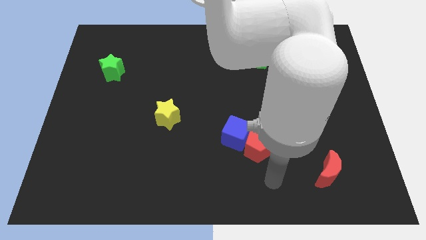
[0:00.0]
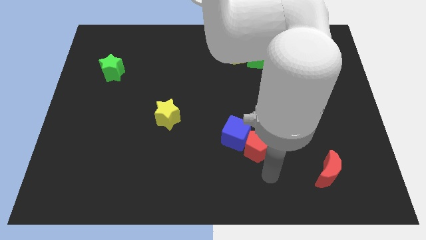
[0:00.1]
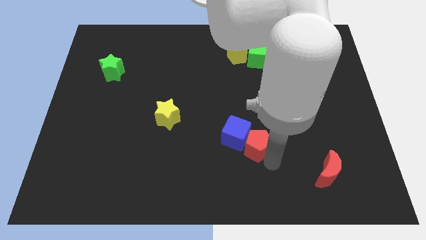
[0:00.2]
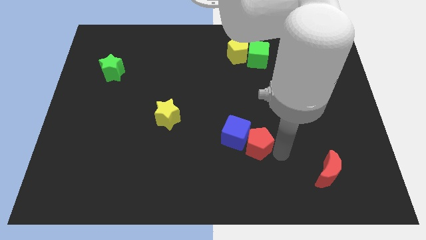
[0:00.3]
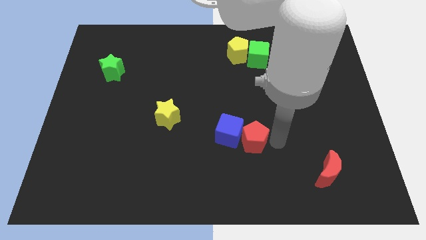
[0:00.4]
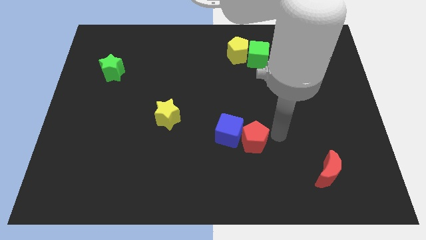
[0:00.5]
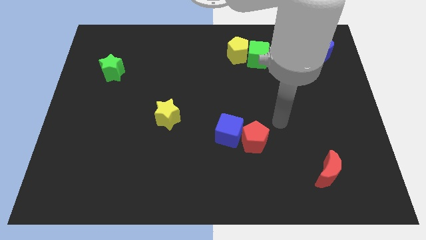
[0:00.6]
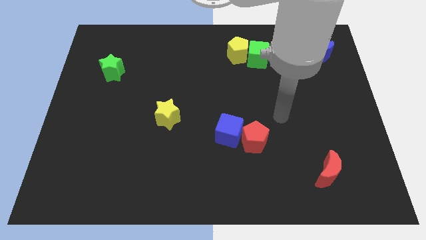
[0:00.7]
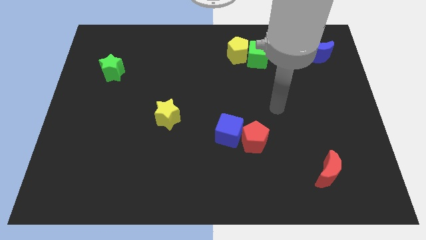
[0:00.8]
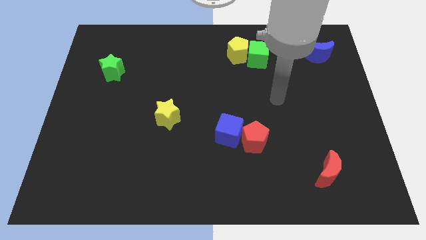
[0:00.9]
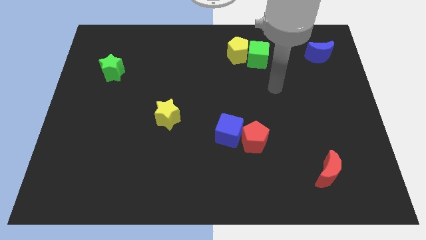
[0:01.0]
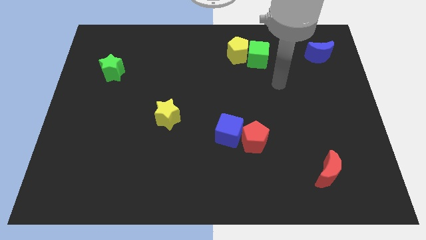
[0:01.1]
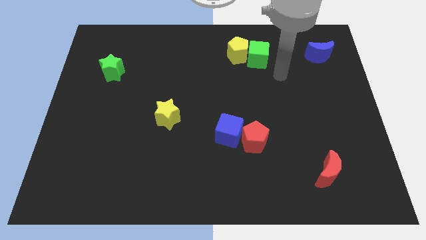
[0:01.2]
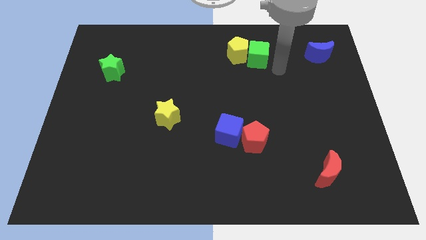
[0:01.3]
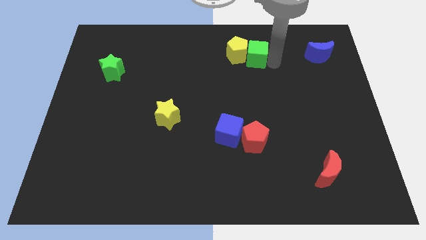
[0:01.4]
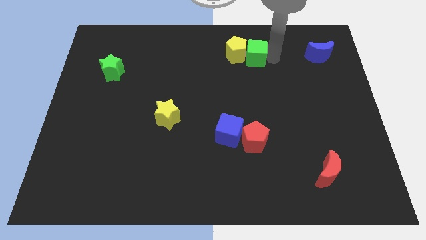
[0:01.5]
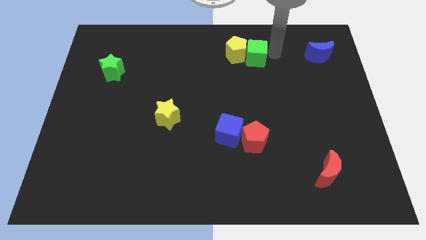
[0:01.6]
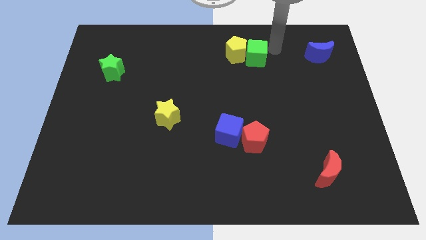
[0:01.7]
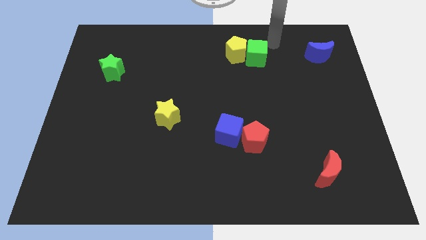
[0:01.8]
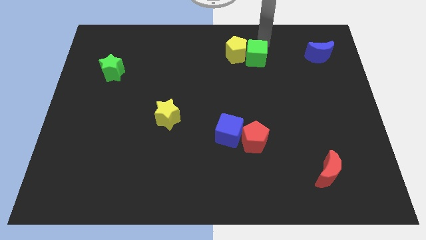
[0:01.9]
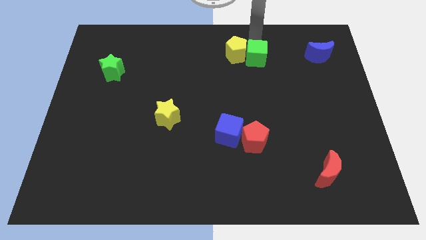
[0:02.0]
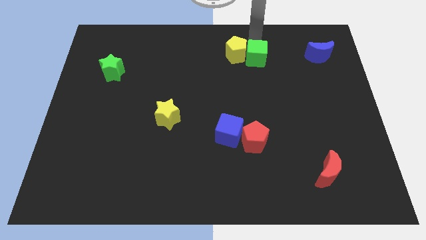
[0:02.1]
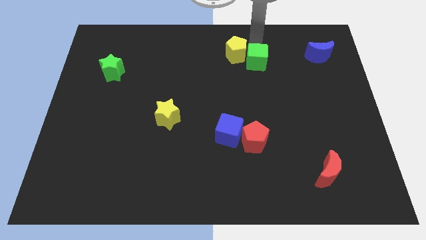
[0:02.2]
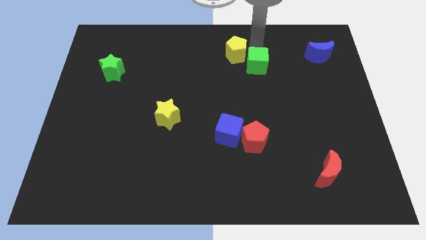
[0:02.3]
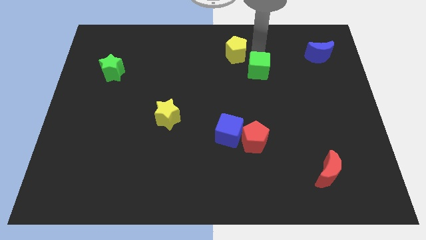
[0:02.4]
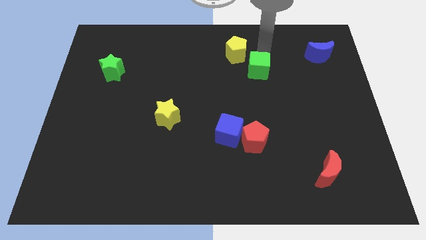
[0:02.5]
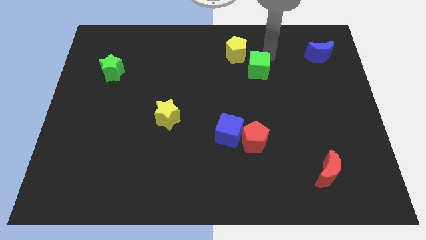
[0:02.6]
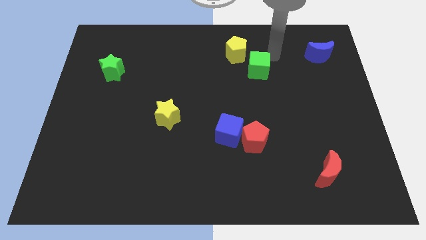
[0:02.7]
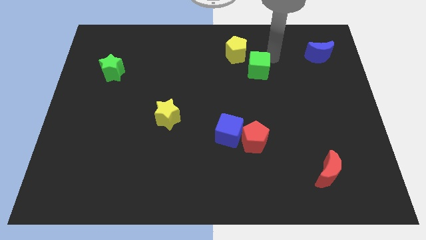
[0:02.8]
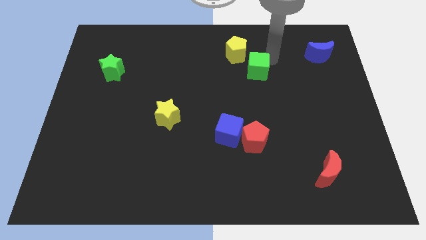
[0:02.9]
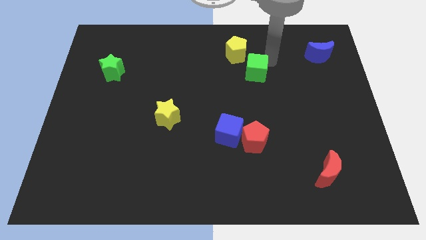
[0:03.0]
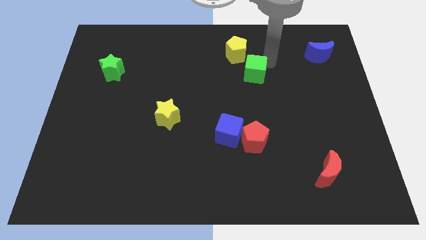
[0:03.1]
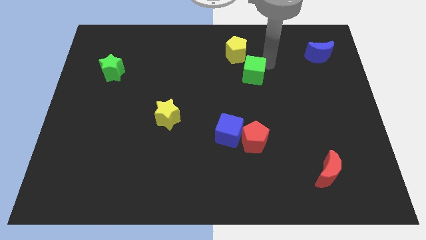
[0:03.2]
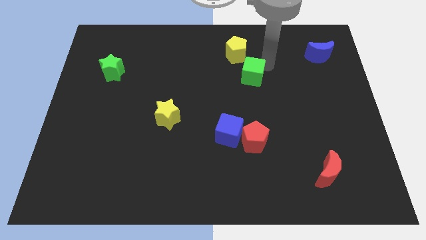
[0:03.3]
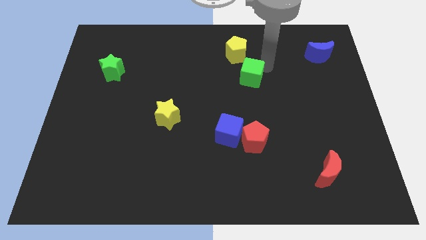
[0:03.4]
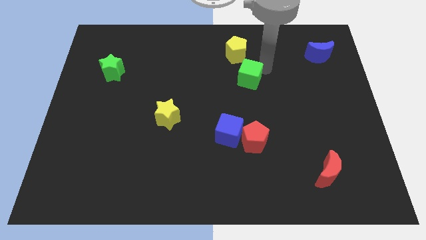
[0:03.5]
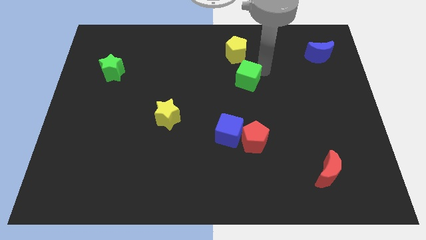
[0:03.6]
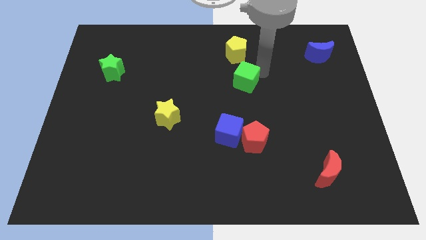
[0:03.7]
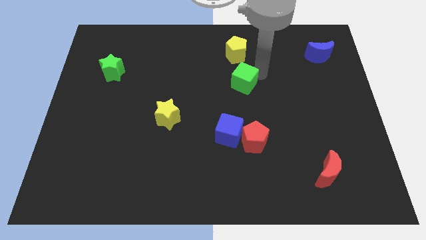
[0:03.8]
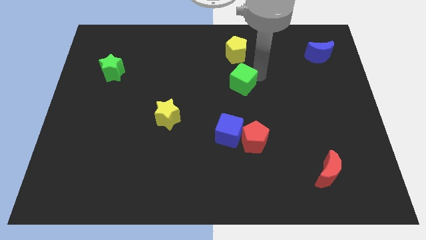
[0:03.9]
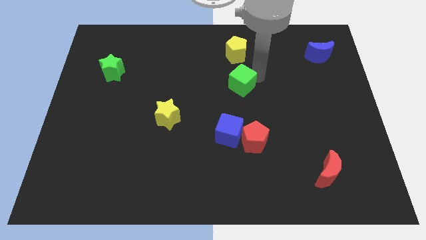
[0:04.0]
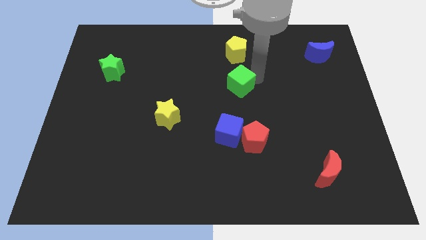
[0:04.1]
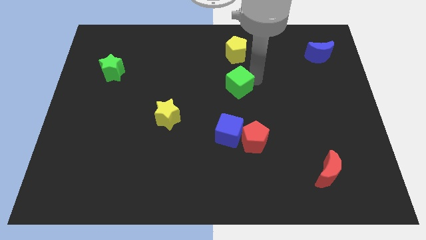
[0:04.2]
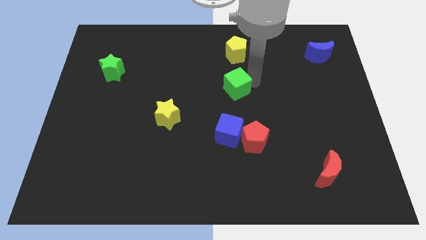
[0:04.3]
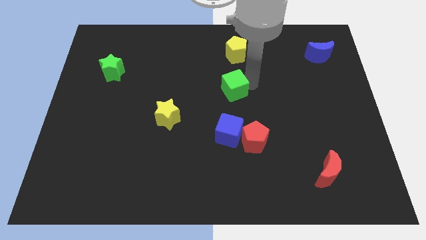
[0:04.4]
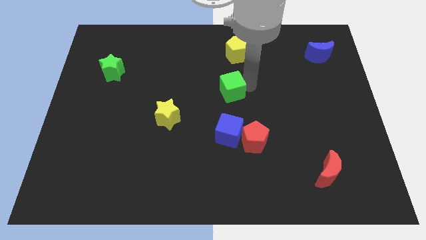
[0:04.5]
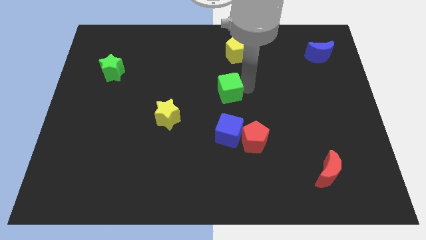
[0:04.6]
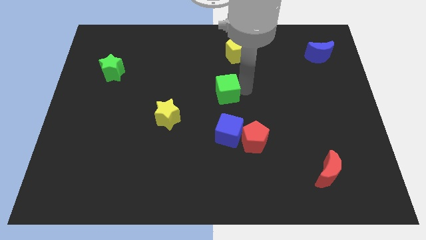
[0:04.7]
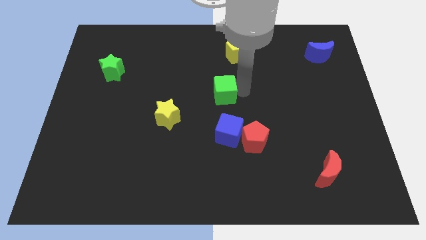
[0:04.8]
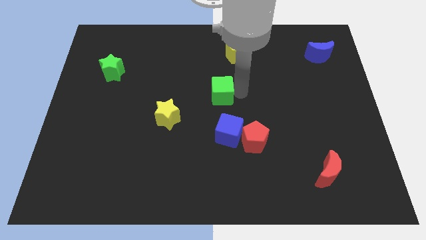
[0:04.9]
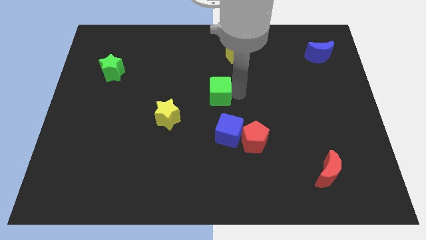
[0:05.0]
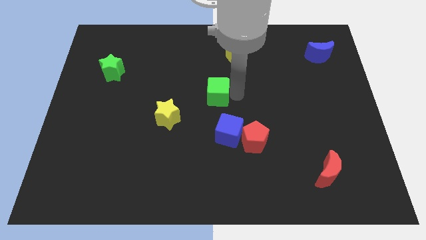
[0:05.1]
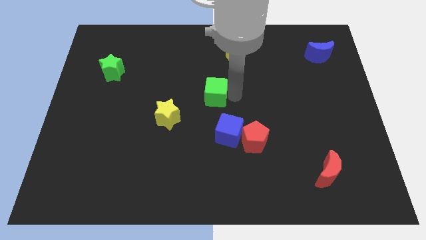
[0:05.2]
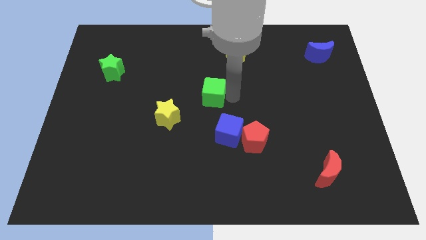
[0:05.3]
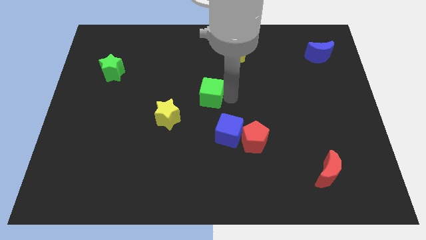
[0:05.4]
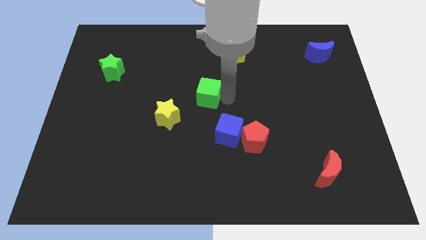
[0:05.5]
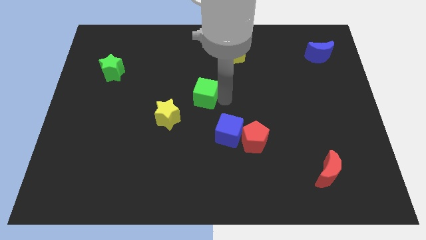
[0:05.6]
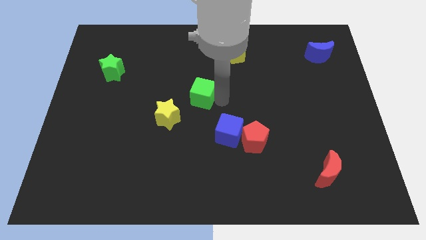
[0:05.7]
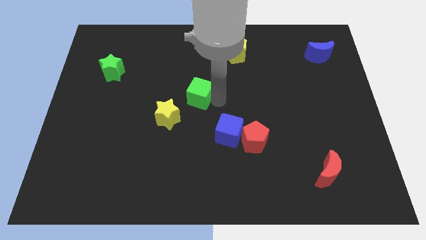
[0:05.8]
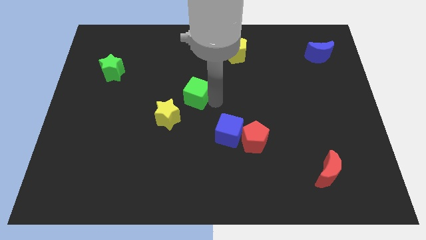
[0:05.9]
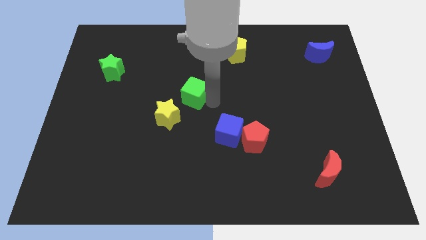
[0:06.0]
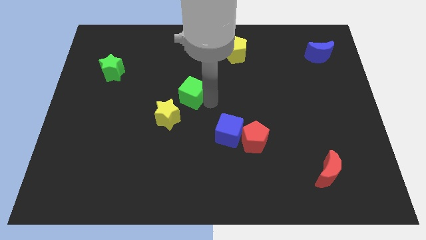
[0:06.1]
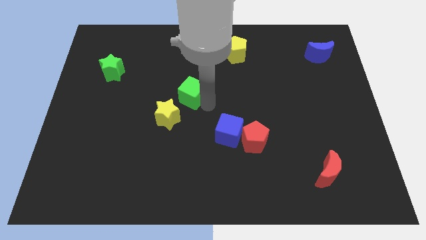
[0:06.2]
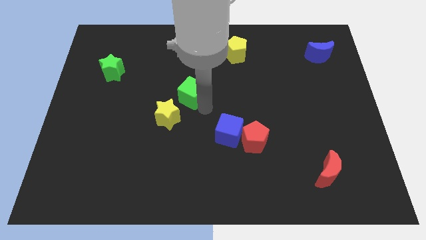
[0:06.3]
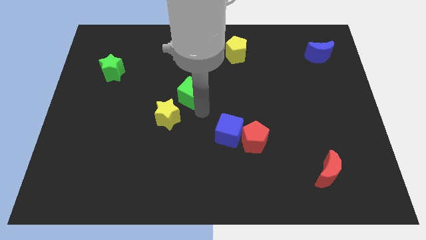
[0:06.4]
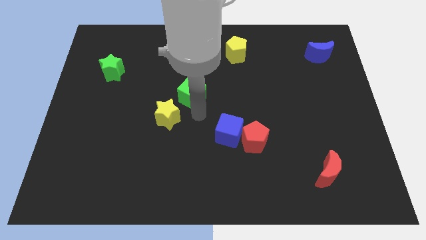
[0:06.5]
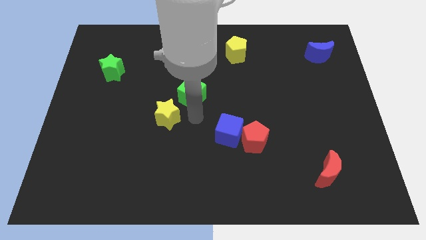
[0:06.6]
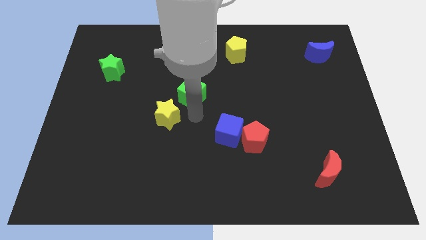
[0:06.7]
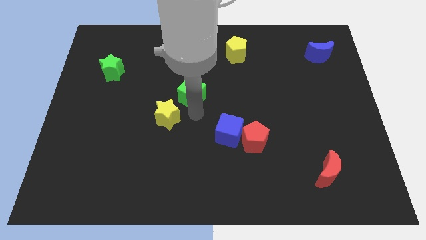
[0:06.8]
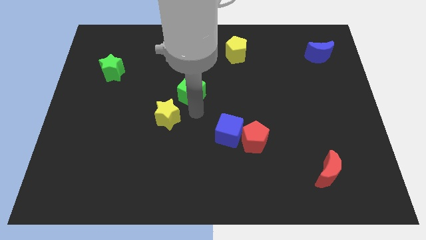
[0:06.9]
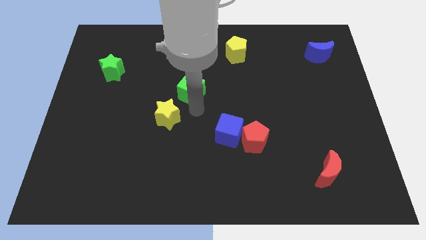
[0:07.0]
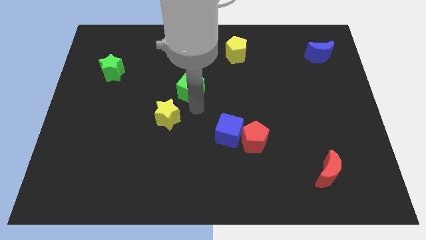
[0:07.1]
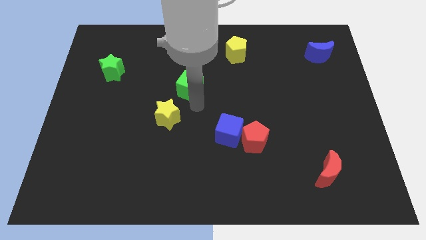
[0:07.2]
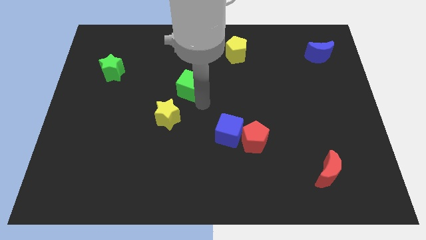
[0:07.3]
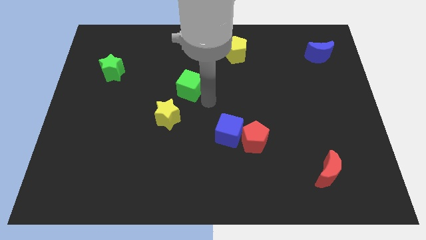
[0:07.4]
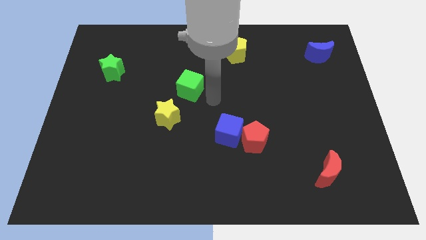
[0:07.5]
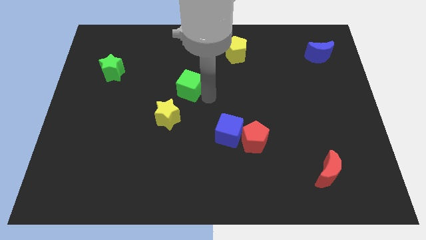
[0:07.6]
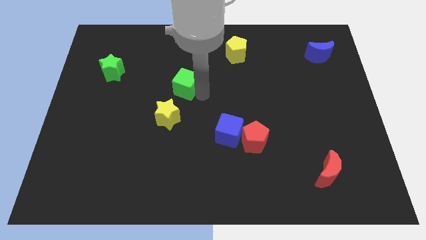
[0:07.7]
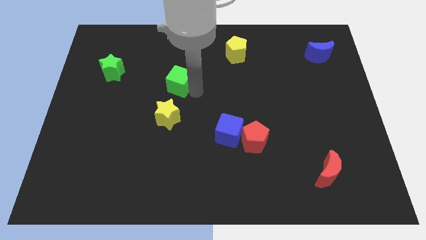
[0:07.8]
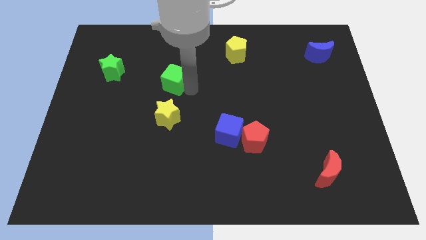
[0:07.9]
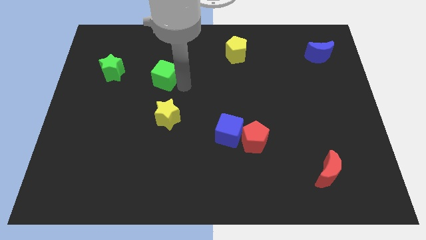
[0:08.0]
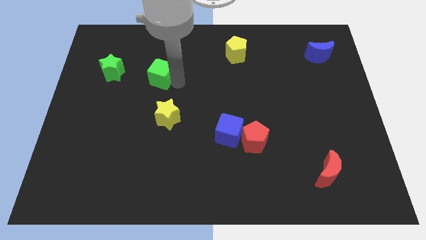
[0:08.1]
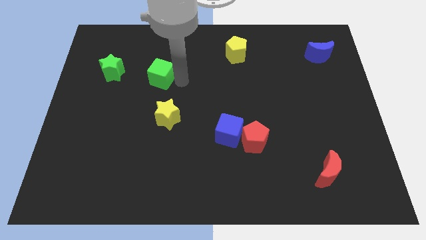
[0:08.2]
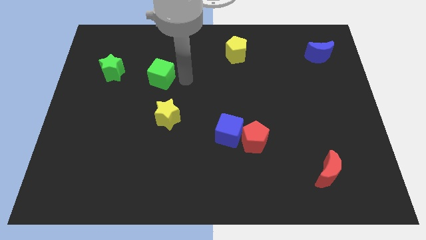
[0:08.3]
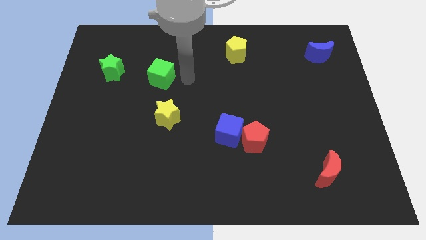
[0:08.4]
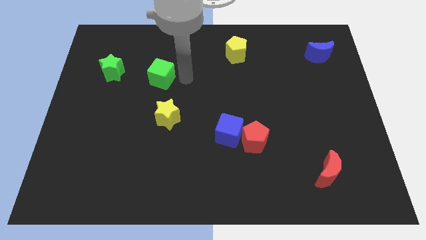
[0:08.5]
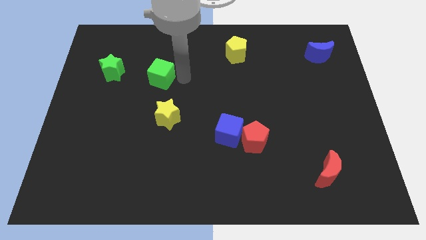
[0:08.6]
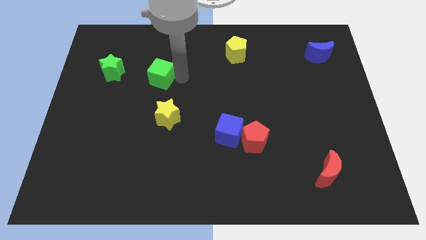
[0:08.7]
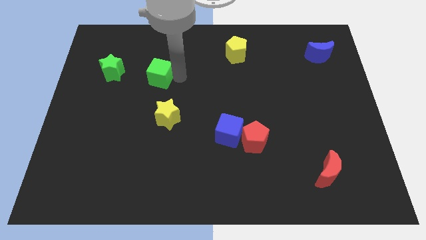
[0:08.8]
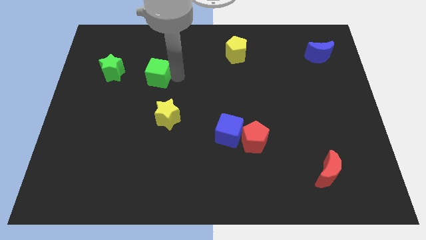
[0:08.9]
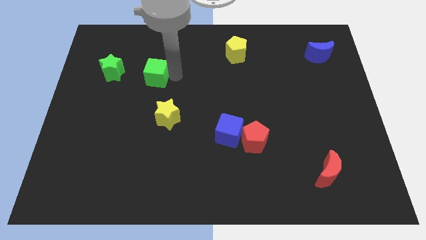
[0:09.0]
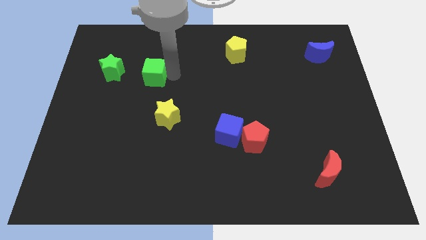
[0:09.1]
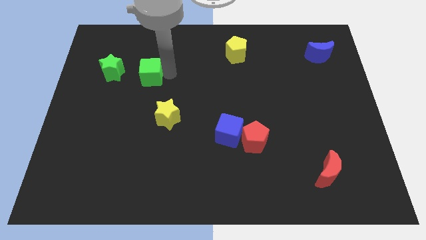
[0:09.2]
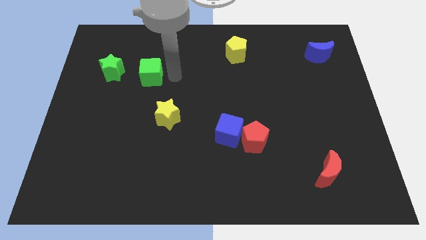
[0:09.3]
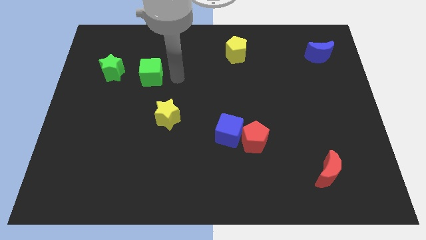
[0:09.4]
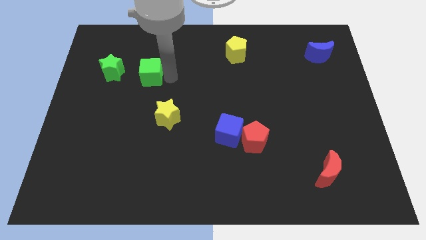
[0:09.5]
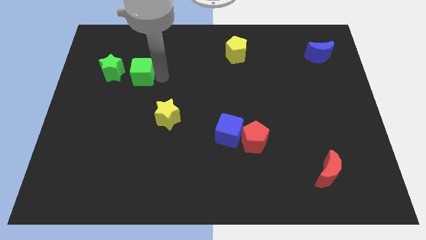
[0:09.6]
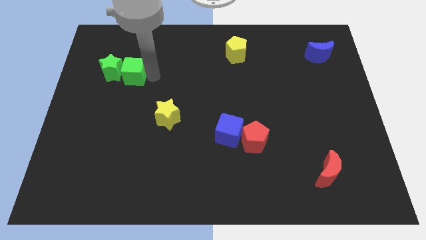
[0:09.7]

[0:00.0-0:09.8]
push the green cube to the green star
